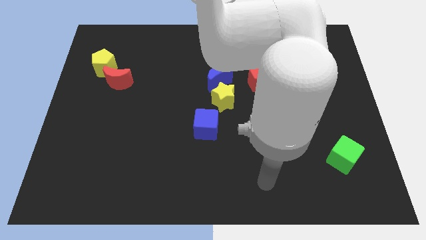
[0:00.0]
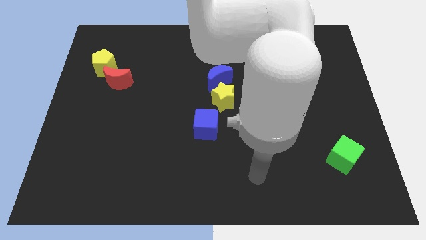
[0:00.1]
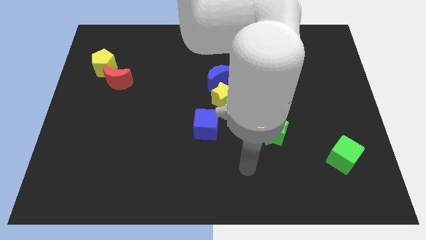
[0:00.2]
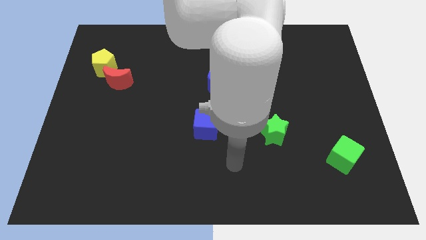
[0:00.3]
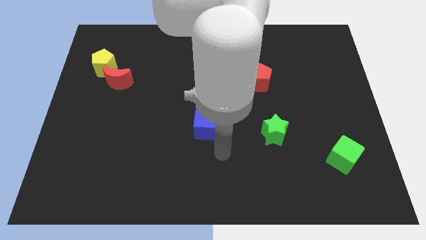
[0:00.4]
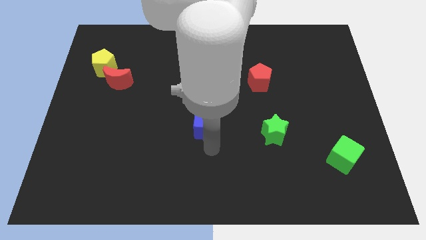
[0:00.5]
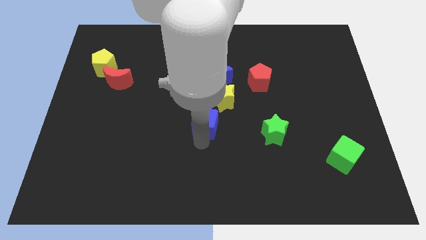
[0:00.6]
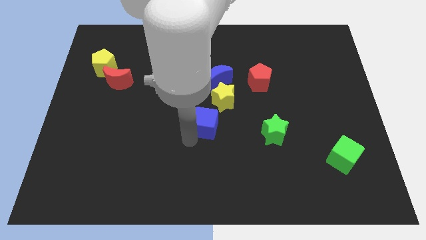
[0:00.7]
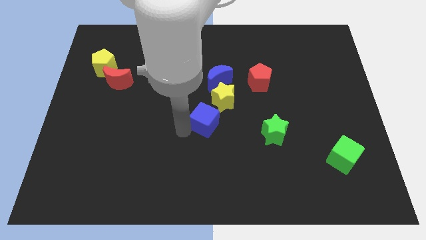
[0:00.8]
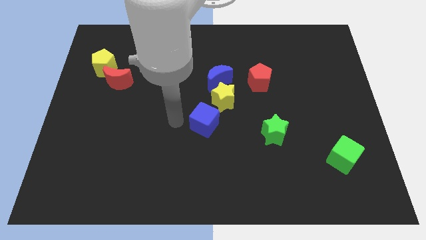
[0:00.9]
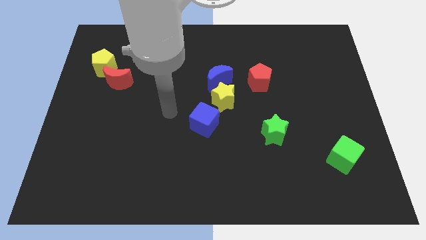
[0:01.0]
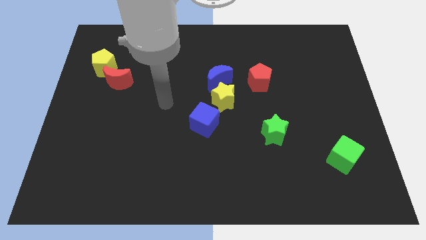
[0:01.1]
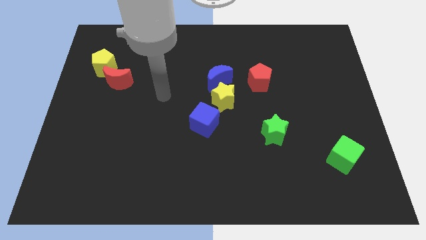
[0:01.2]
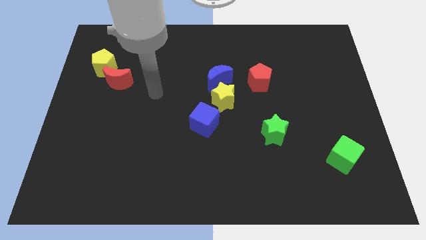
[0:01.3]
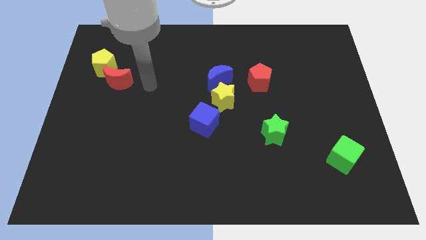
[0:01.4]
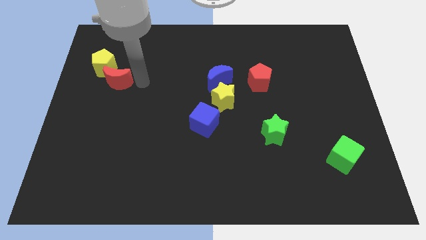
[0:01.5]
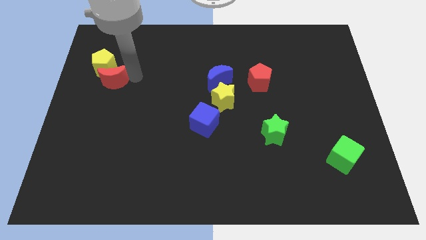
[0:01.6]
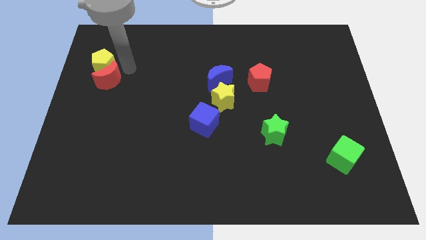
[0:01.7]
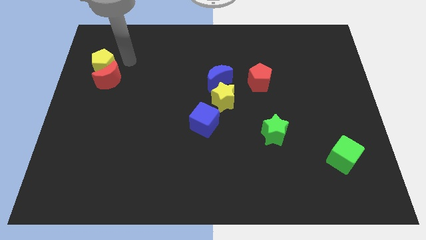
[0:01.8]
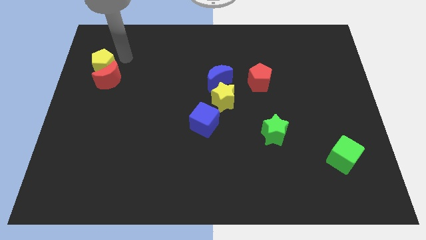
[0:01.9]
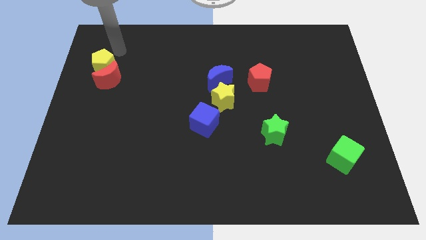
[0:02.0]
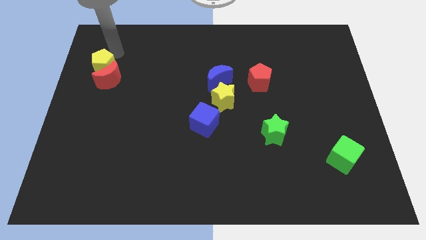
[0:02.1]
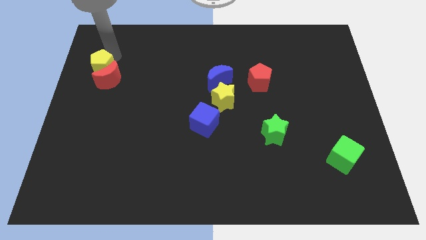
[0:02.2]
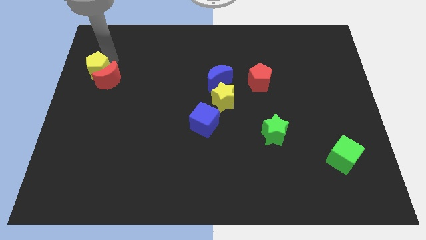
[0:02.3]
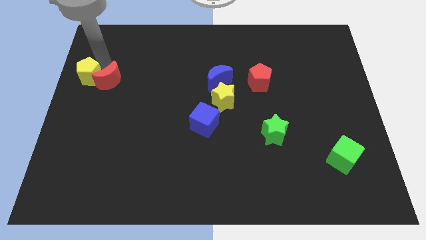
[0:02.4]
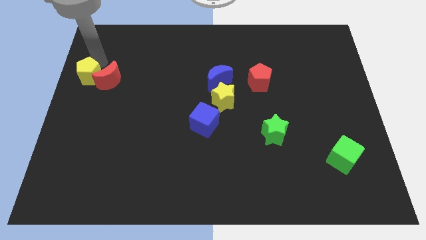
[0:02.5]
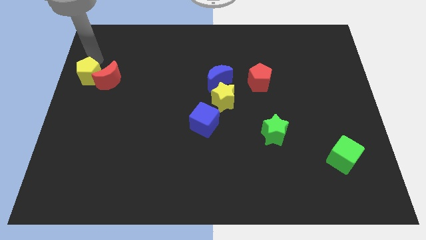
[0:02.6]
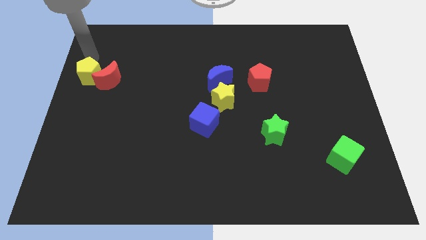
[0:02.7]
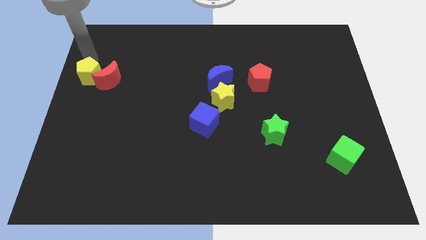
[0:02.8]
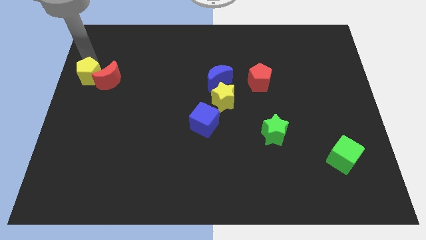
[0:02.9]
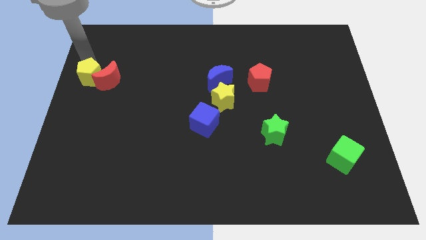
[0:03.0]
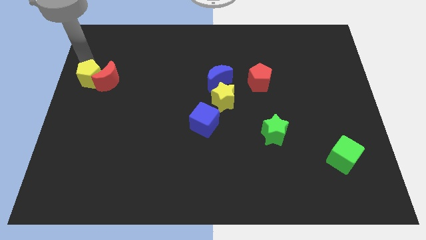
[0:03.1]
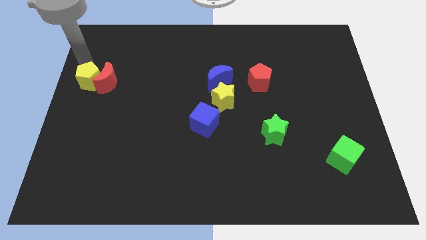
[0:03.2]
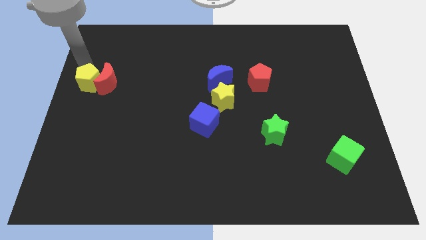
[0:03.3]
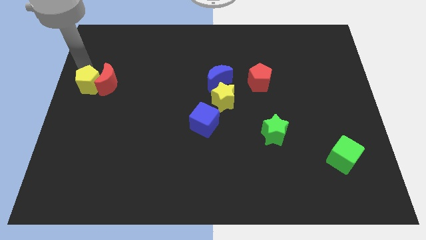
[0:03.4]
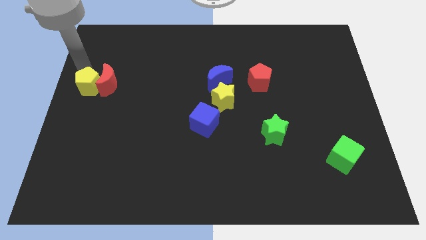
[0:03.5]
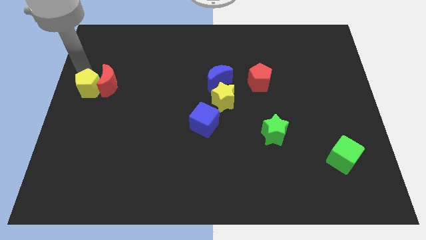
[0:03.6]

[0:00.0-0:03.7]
slightly move the yellow pentagon down

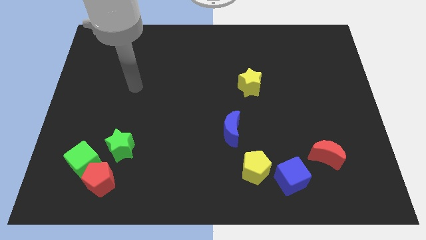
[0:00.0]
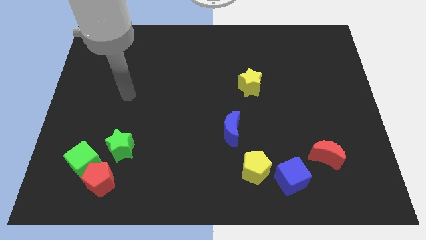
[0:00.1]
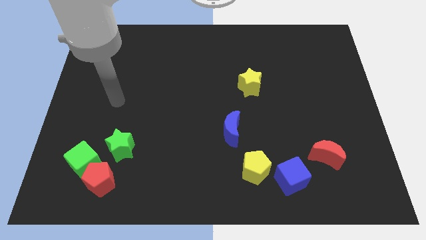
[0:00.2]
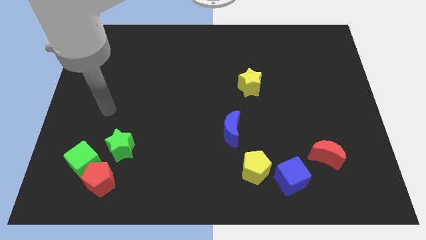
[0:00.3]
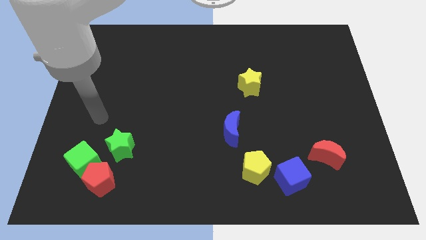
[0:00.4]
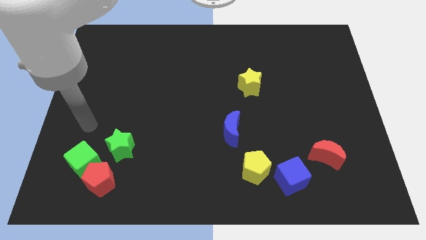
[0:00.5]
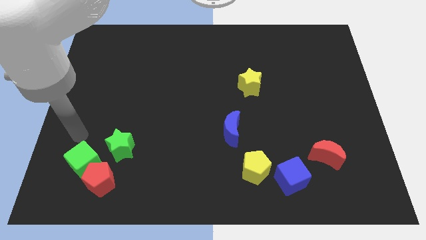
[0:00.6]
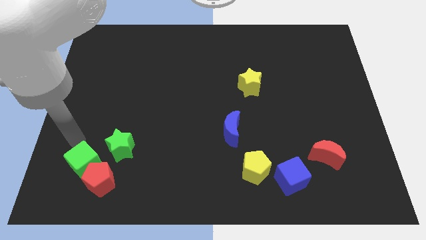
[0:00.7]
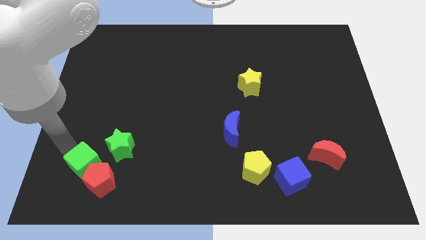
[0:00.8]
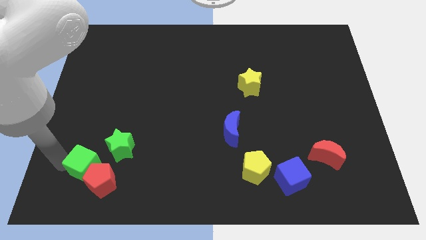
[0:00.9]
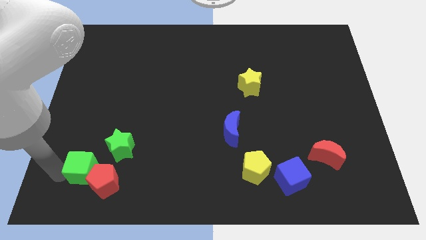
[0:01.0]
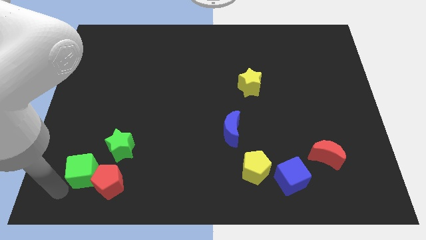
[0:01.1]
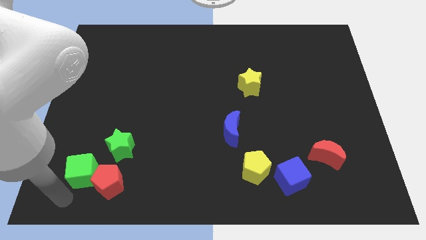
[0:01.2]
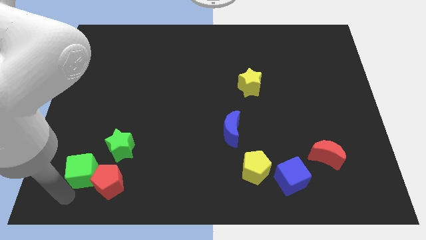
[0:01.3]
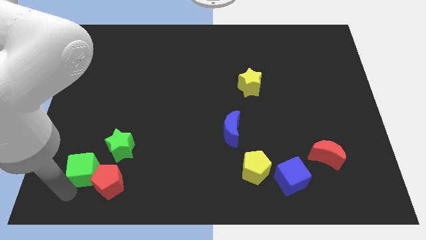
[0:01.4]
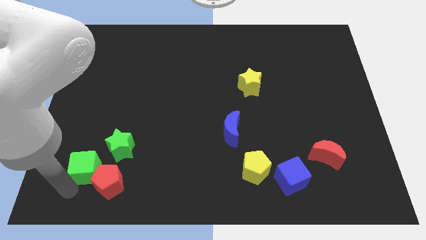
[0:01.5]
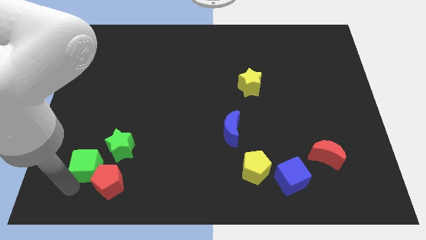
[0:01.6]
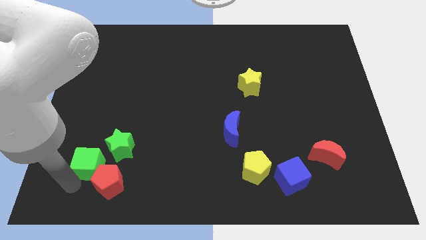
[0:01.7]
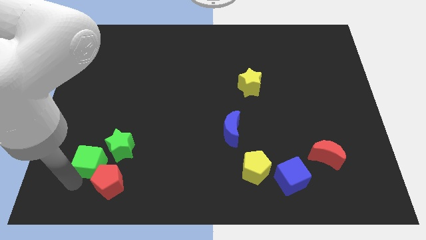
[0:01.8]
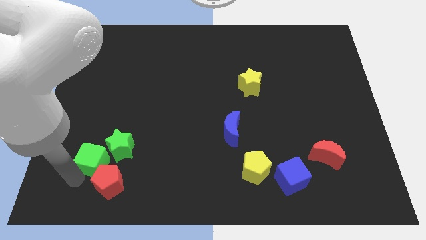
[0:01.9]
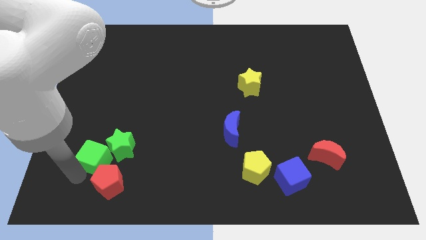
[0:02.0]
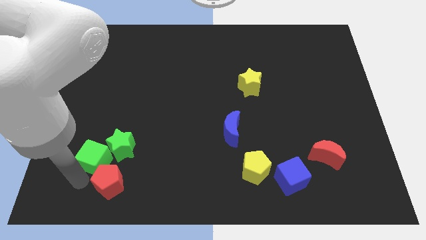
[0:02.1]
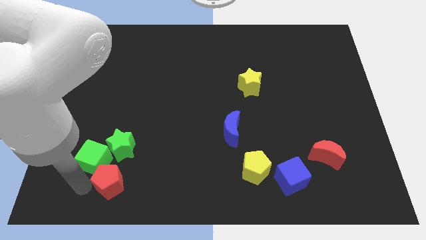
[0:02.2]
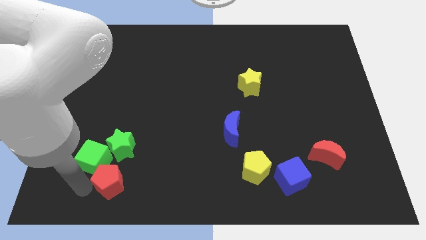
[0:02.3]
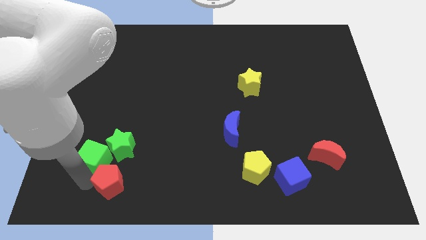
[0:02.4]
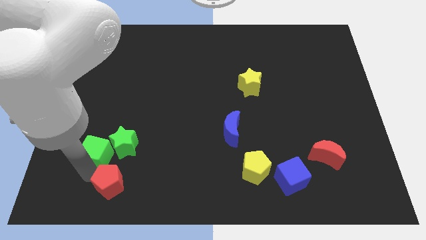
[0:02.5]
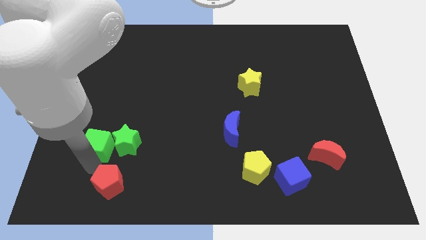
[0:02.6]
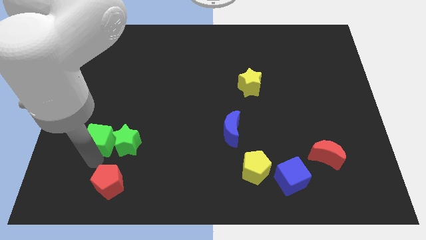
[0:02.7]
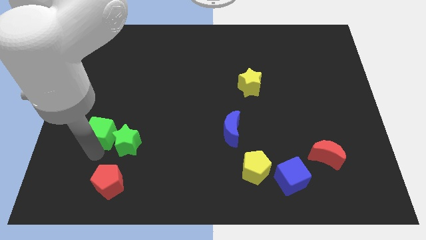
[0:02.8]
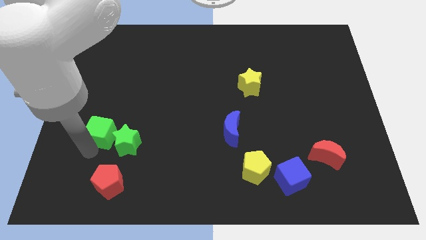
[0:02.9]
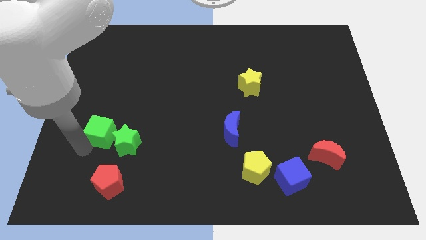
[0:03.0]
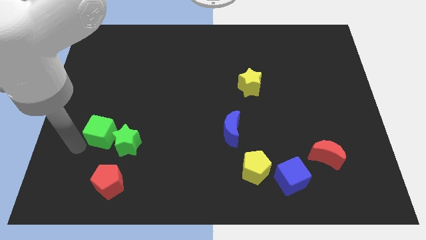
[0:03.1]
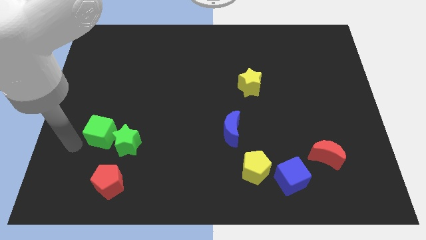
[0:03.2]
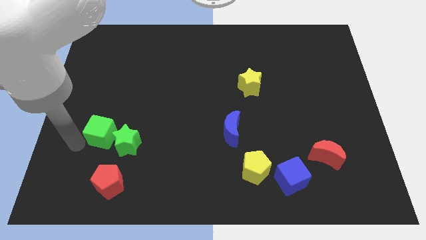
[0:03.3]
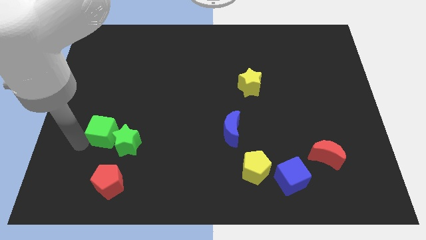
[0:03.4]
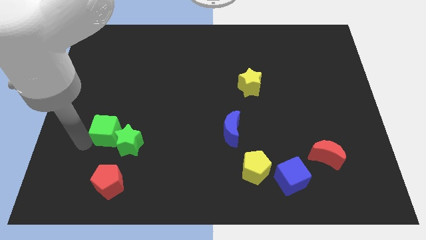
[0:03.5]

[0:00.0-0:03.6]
slightly push the green cube up and to the right diagonally

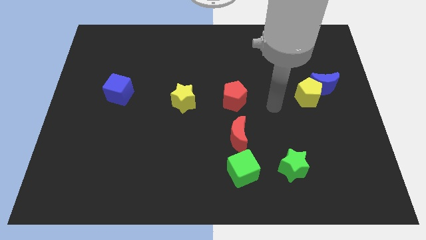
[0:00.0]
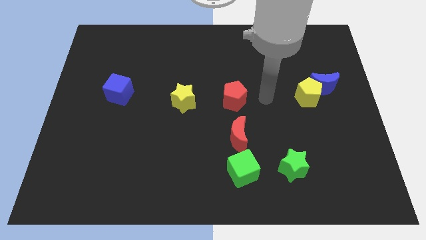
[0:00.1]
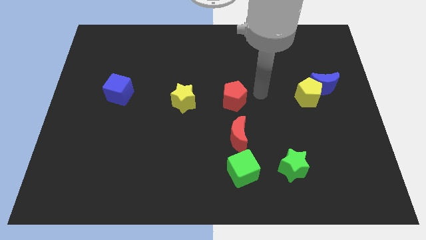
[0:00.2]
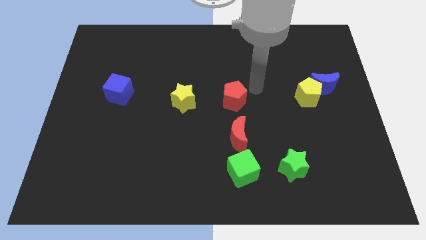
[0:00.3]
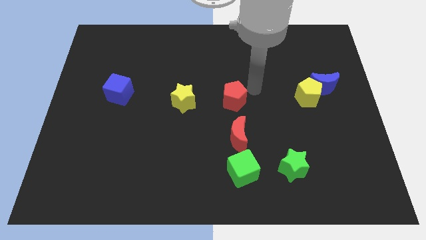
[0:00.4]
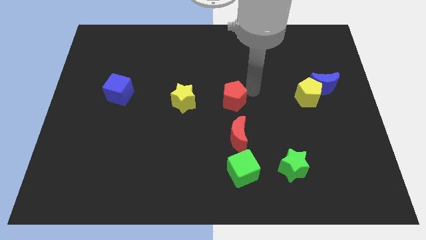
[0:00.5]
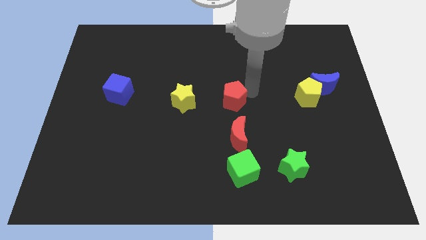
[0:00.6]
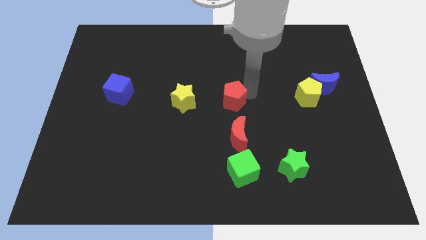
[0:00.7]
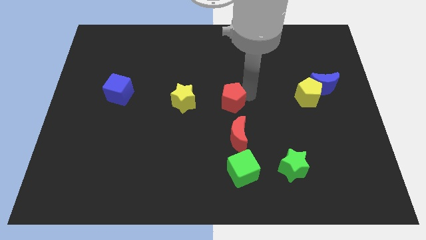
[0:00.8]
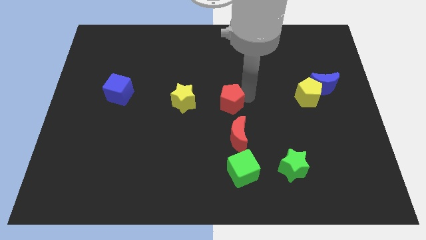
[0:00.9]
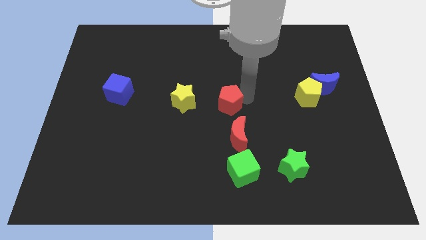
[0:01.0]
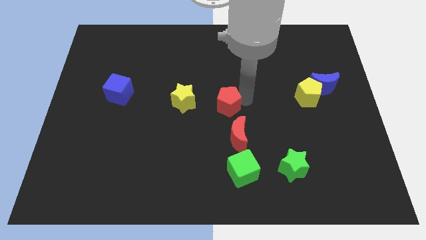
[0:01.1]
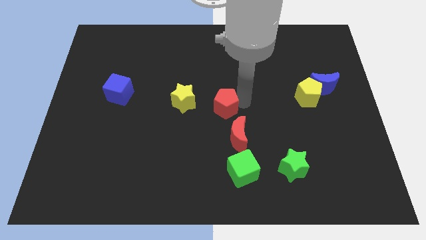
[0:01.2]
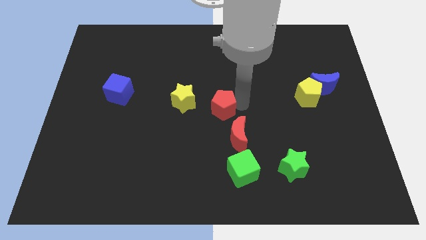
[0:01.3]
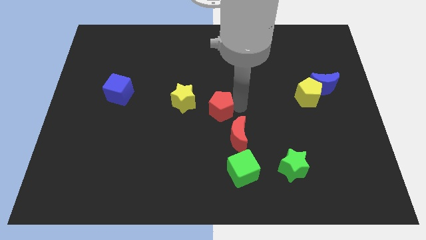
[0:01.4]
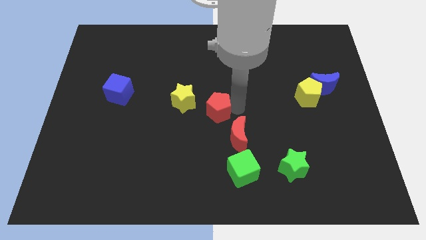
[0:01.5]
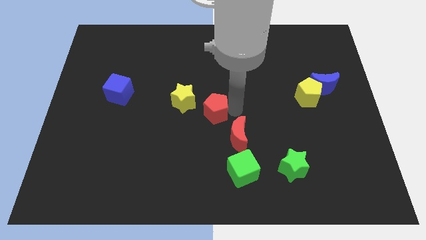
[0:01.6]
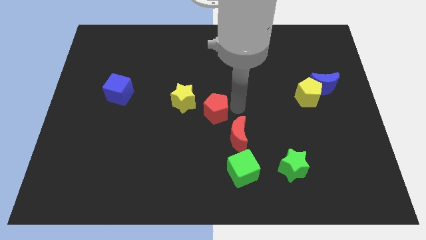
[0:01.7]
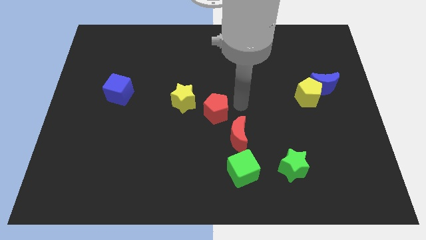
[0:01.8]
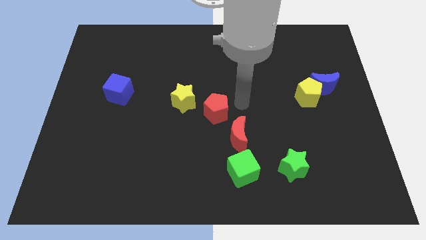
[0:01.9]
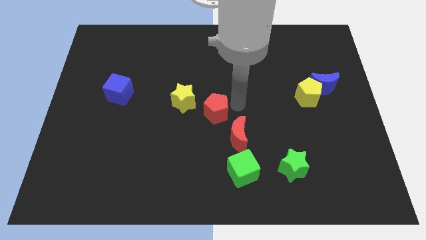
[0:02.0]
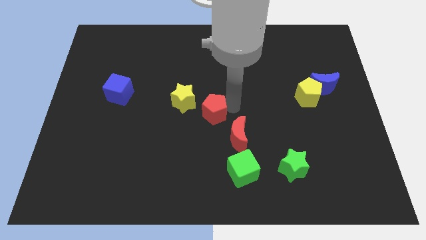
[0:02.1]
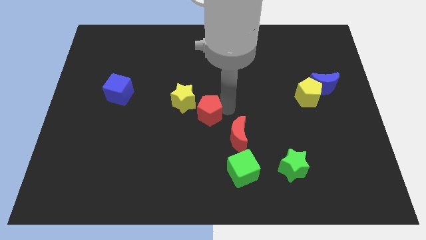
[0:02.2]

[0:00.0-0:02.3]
slide the red pentagon downwards and then left a little
